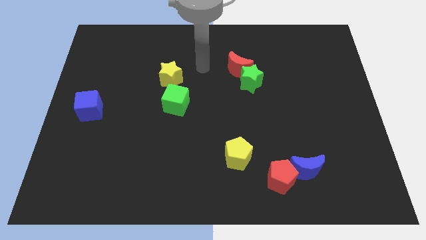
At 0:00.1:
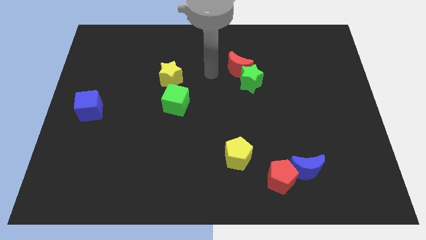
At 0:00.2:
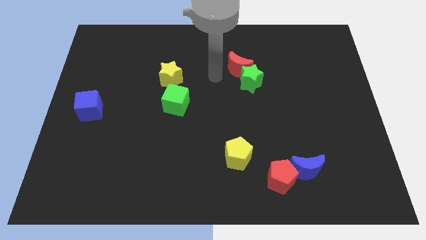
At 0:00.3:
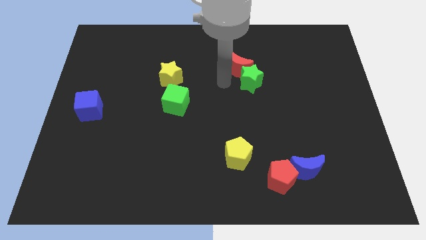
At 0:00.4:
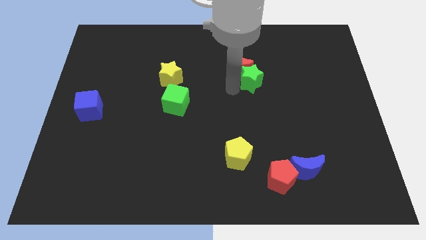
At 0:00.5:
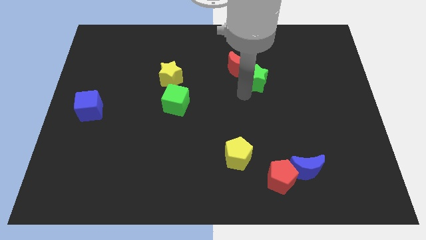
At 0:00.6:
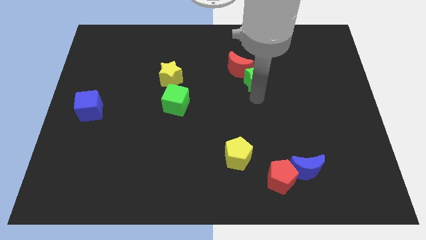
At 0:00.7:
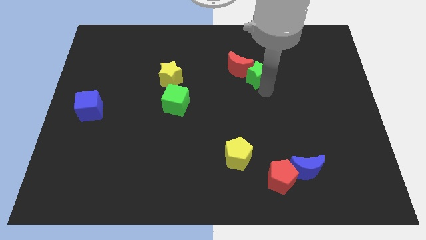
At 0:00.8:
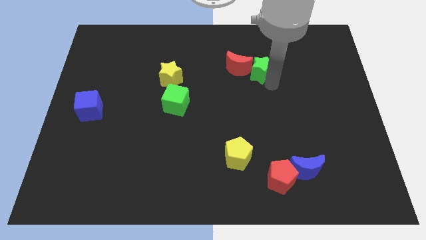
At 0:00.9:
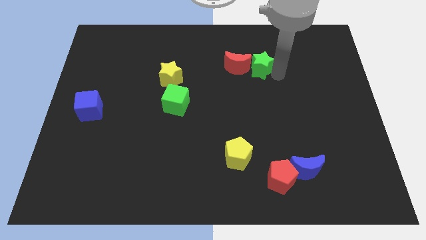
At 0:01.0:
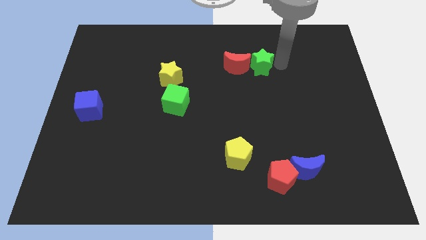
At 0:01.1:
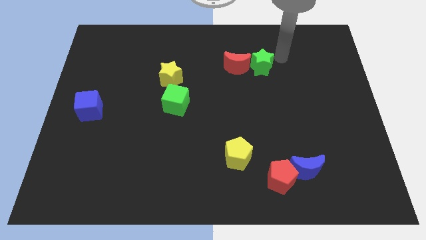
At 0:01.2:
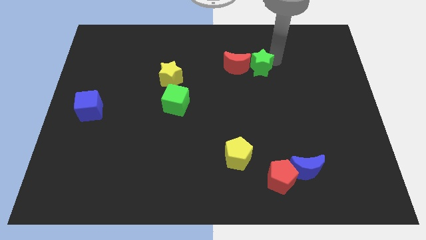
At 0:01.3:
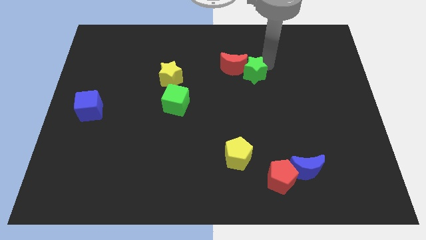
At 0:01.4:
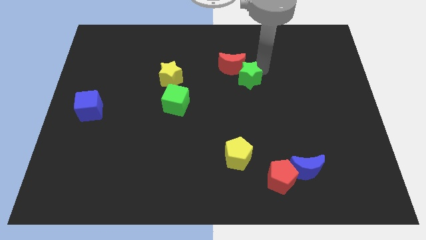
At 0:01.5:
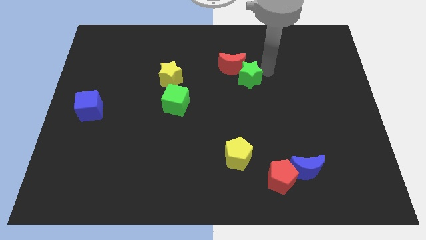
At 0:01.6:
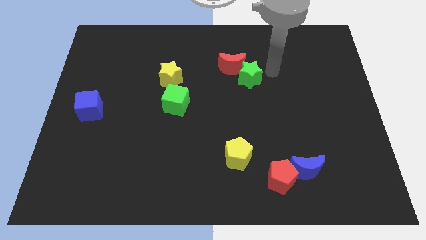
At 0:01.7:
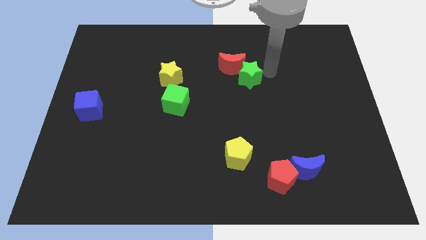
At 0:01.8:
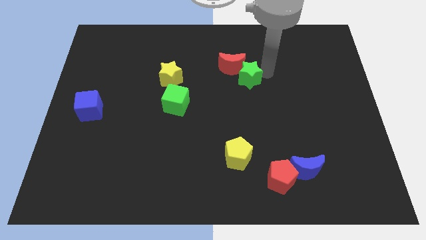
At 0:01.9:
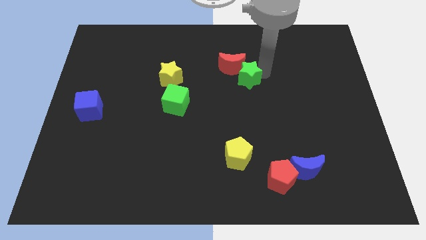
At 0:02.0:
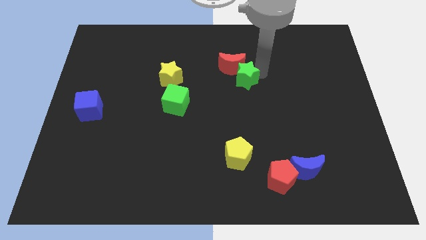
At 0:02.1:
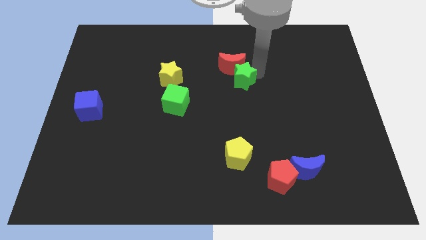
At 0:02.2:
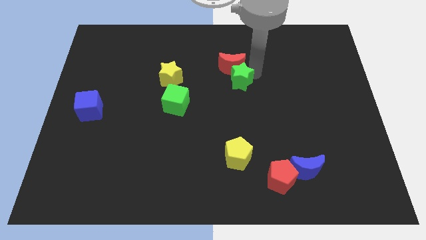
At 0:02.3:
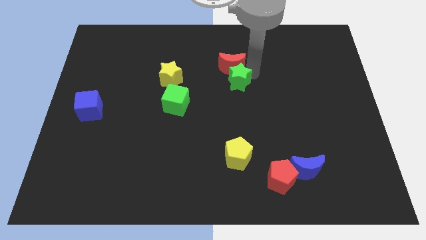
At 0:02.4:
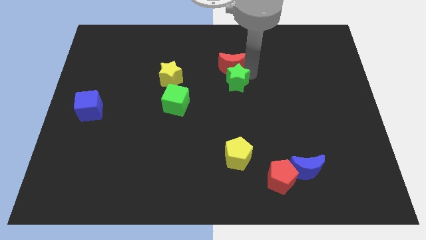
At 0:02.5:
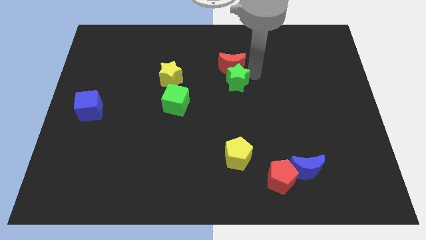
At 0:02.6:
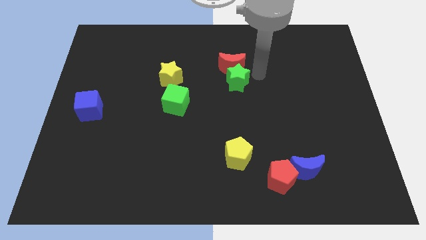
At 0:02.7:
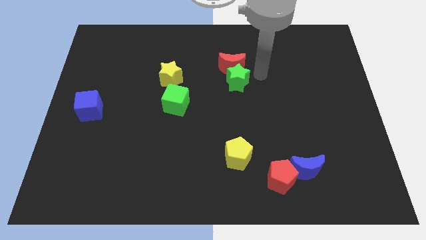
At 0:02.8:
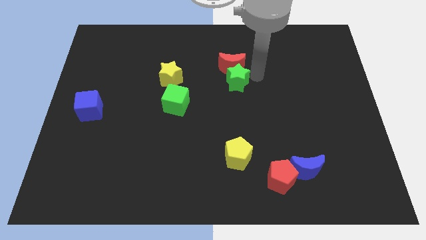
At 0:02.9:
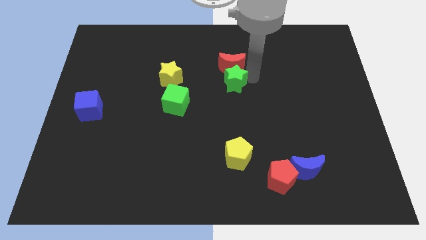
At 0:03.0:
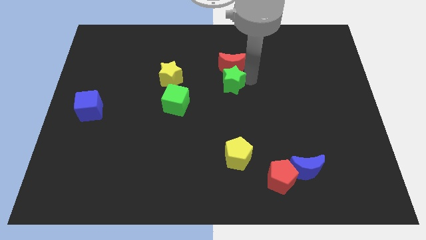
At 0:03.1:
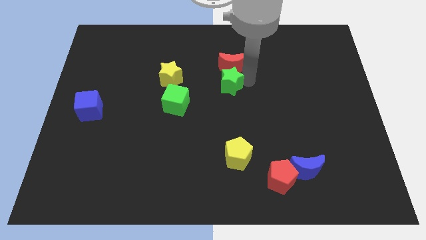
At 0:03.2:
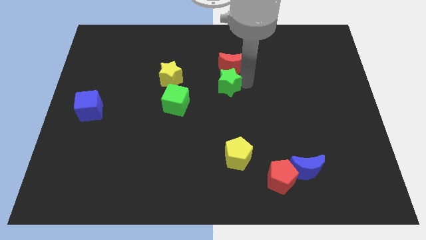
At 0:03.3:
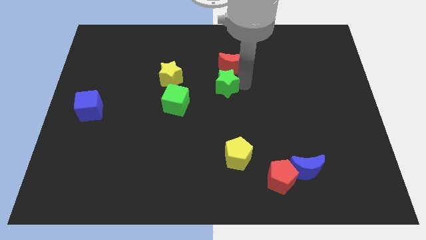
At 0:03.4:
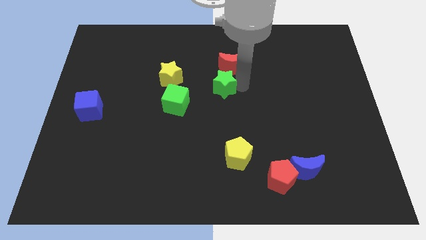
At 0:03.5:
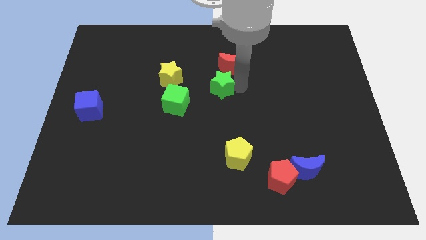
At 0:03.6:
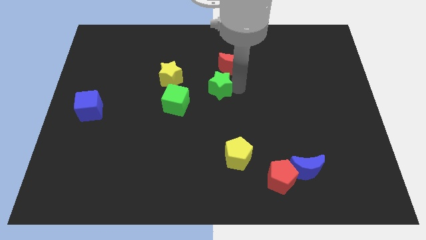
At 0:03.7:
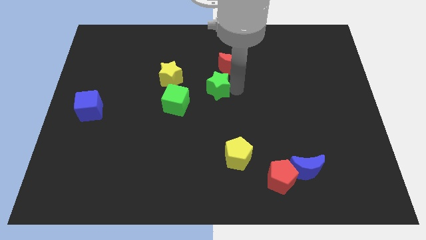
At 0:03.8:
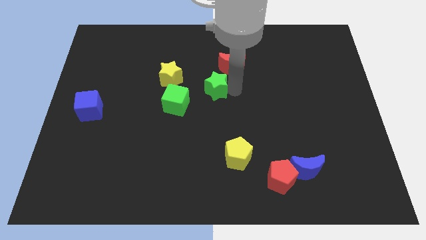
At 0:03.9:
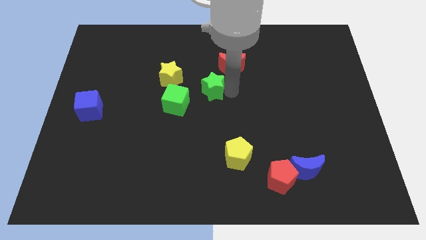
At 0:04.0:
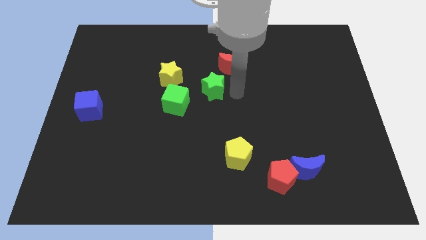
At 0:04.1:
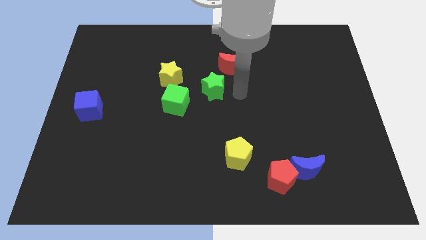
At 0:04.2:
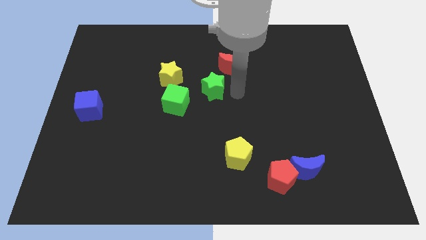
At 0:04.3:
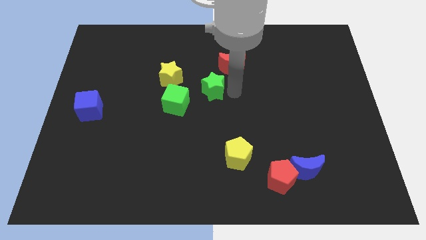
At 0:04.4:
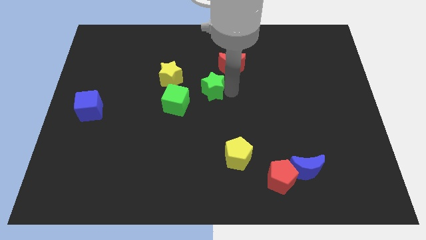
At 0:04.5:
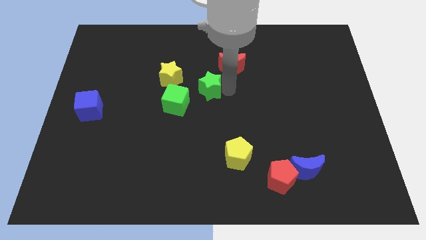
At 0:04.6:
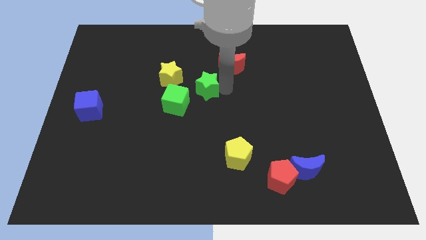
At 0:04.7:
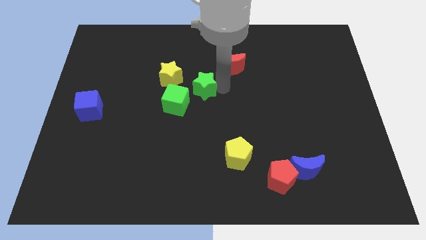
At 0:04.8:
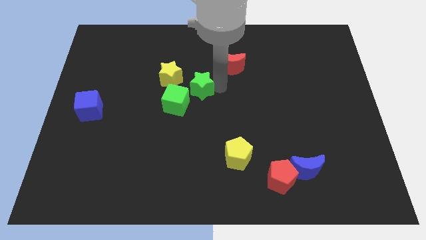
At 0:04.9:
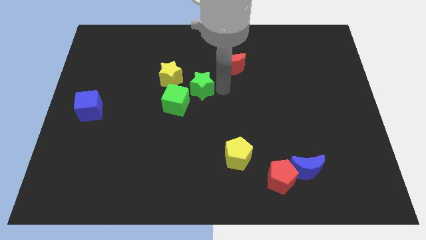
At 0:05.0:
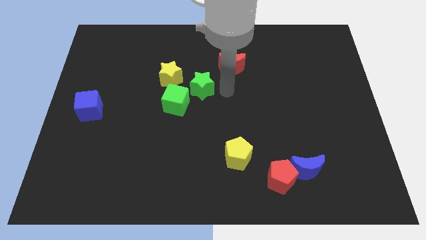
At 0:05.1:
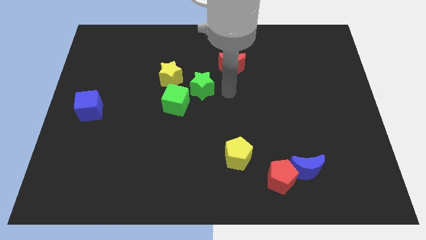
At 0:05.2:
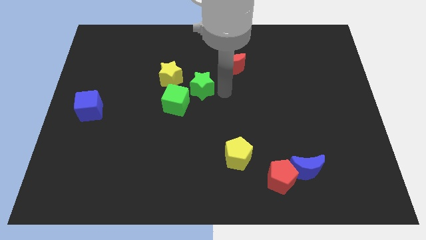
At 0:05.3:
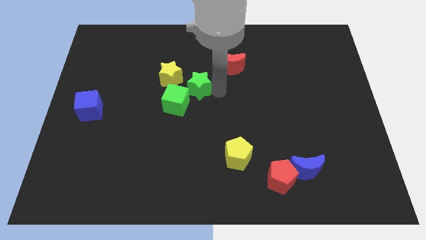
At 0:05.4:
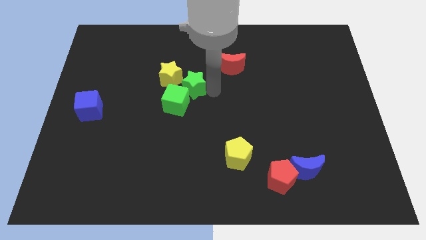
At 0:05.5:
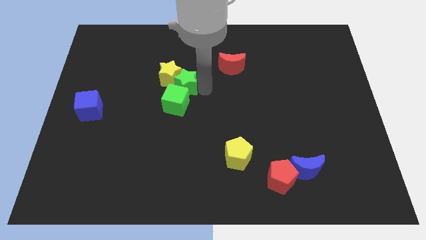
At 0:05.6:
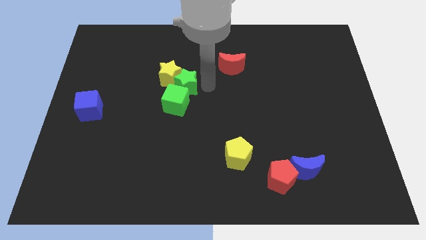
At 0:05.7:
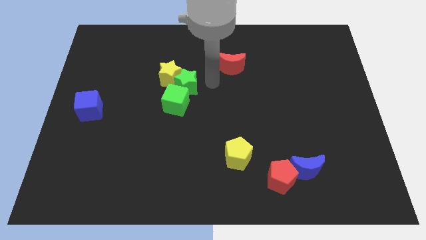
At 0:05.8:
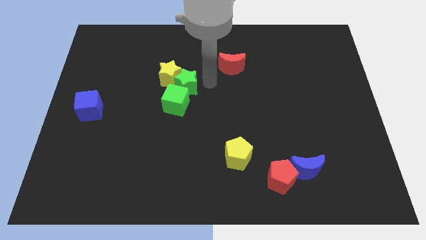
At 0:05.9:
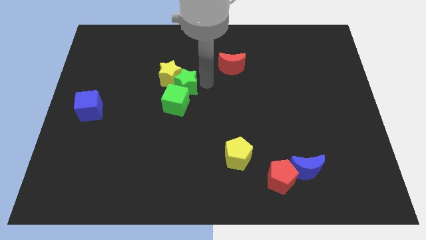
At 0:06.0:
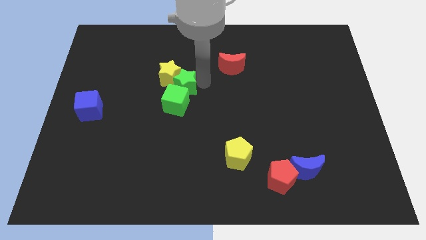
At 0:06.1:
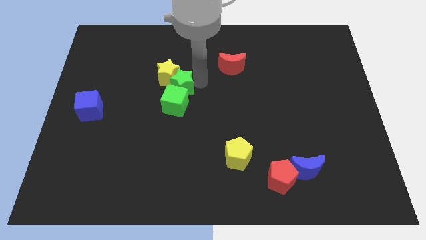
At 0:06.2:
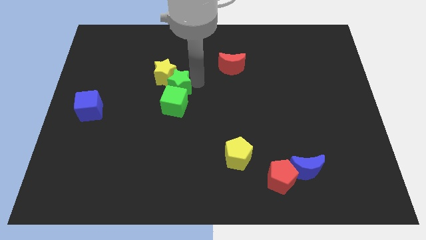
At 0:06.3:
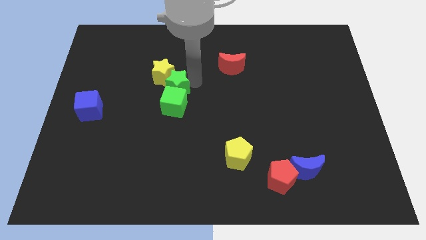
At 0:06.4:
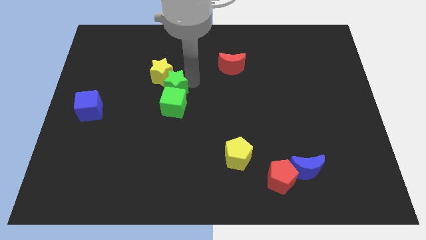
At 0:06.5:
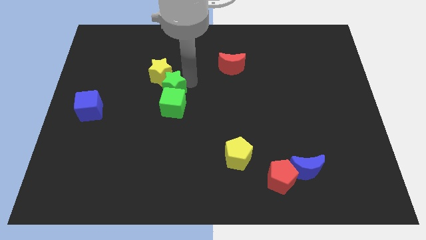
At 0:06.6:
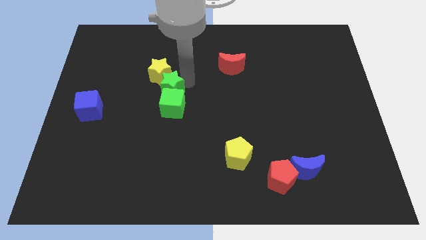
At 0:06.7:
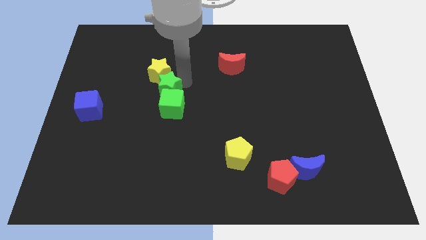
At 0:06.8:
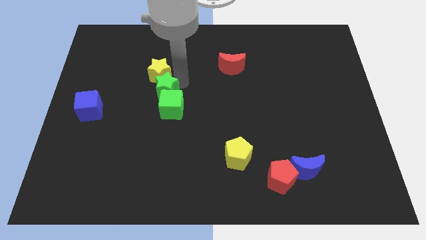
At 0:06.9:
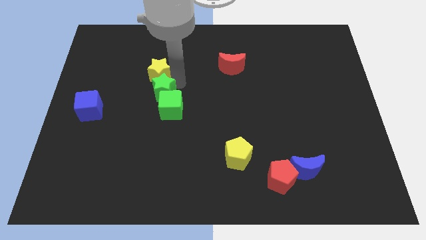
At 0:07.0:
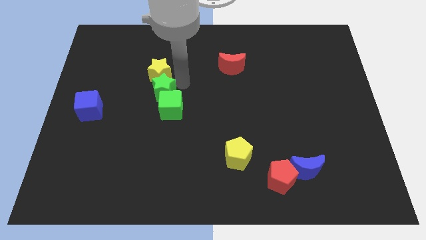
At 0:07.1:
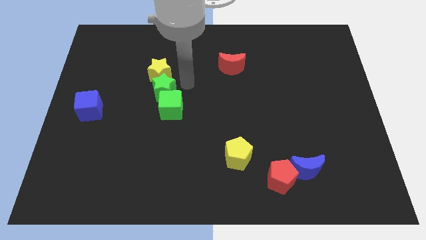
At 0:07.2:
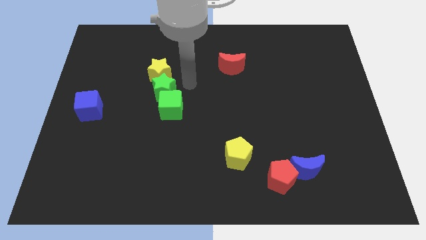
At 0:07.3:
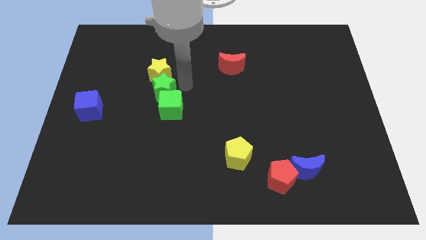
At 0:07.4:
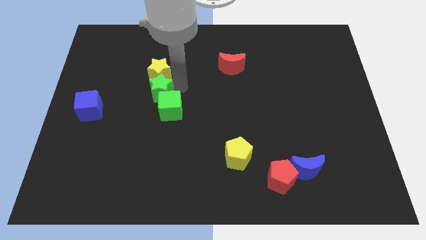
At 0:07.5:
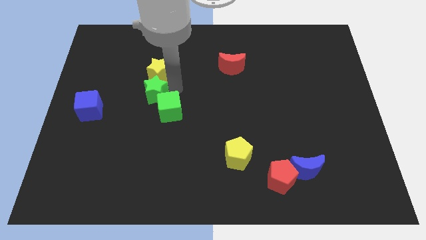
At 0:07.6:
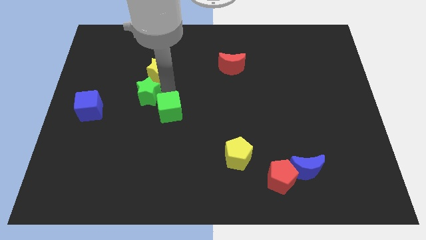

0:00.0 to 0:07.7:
put the green star right of the blue cube

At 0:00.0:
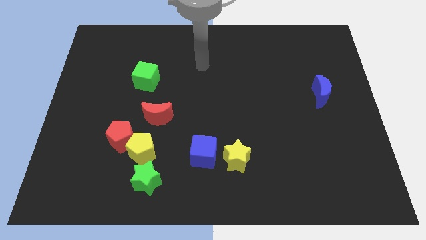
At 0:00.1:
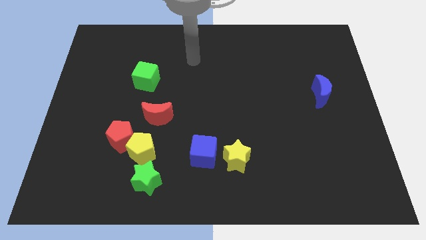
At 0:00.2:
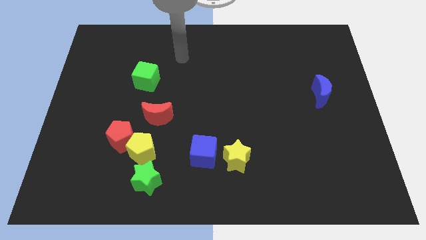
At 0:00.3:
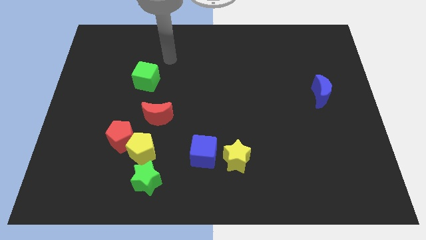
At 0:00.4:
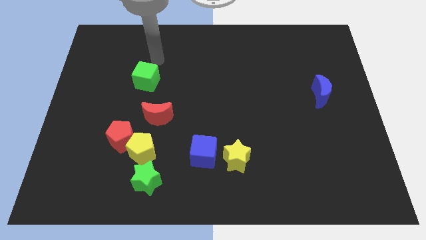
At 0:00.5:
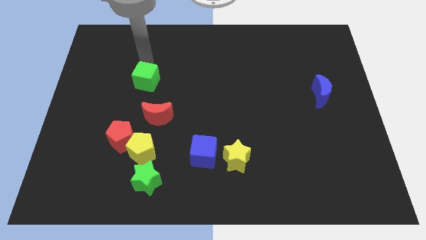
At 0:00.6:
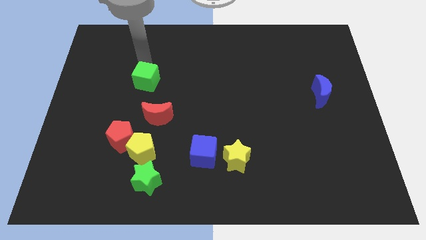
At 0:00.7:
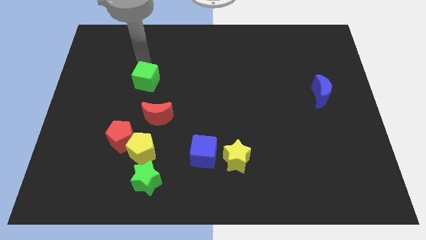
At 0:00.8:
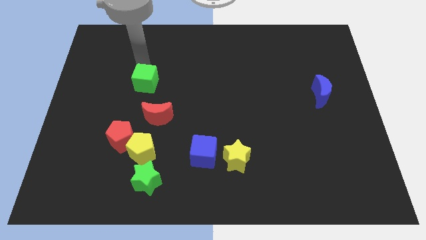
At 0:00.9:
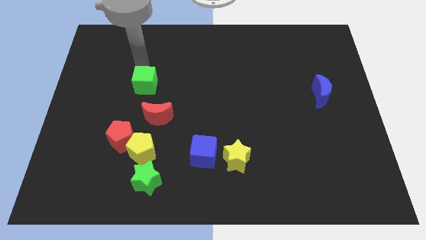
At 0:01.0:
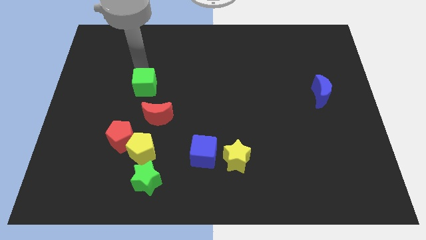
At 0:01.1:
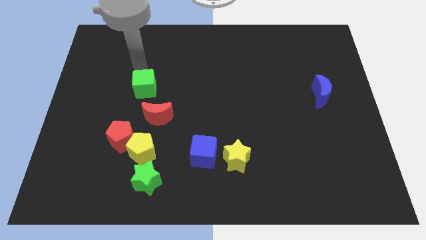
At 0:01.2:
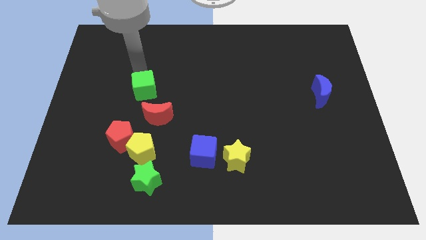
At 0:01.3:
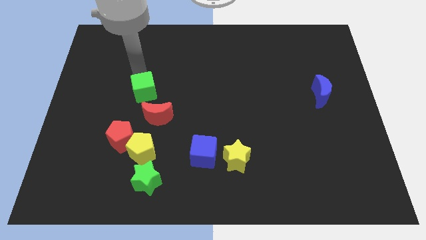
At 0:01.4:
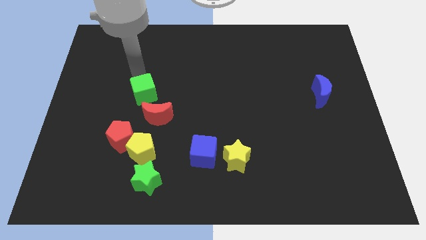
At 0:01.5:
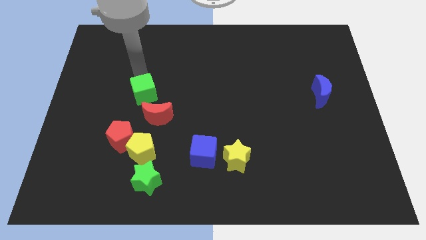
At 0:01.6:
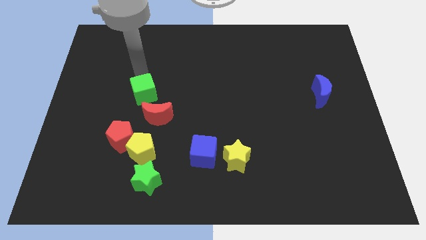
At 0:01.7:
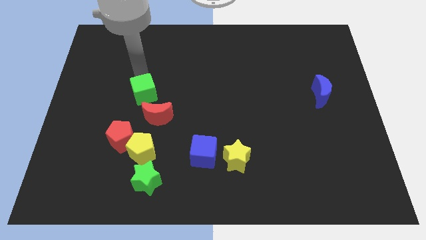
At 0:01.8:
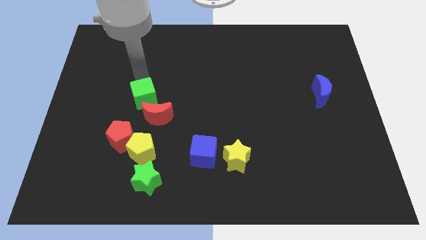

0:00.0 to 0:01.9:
put the green cube to the top of the yellow pentagon
